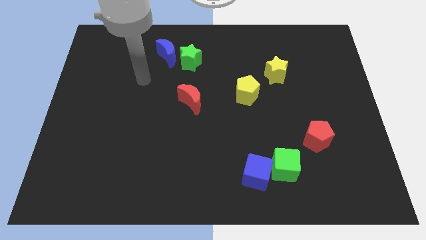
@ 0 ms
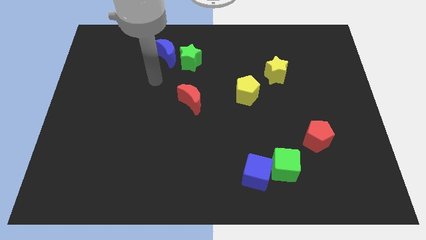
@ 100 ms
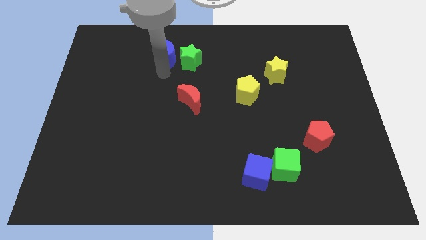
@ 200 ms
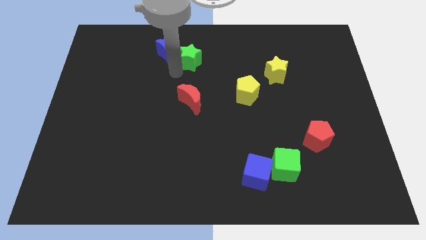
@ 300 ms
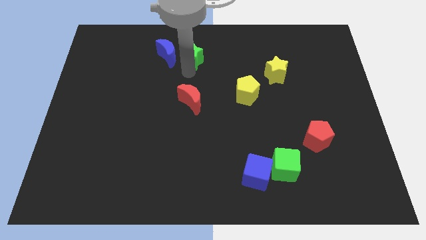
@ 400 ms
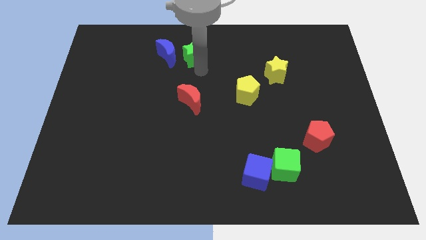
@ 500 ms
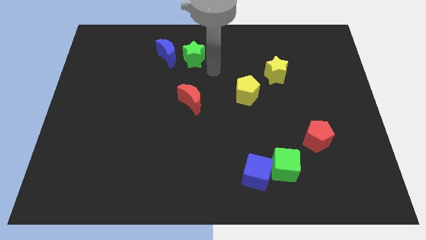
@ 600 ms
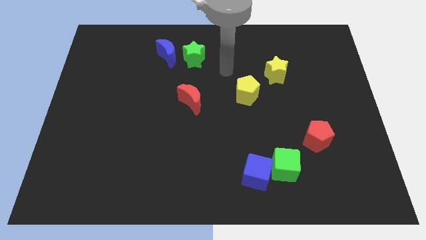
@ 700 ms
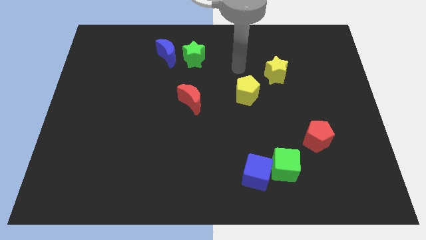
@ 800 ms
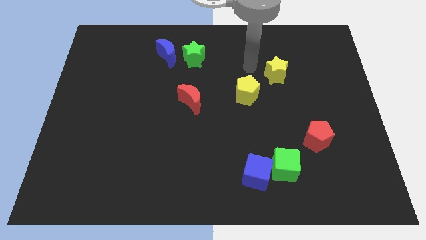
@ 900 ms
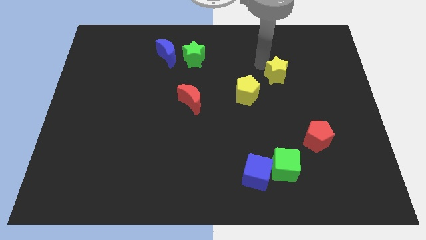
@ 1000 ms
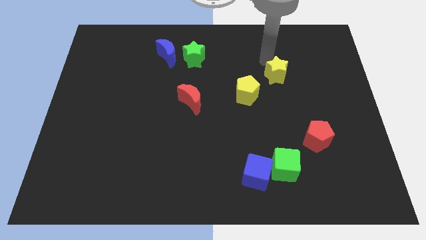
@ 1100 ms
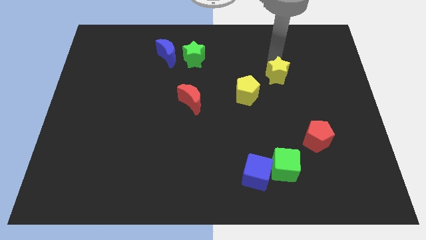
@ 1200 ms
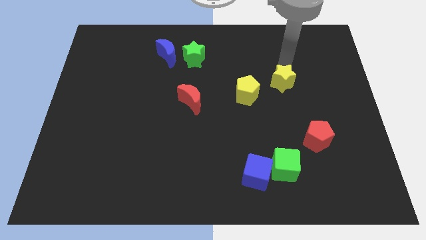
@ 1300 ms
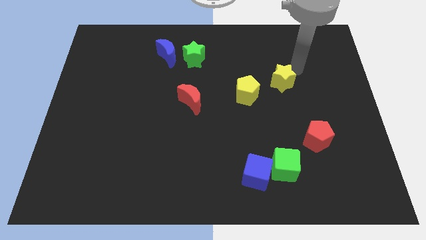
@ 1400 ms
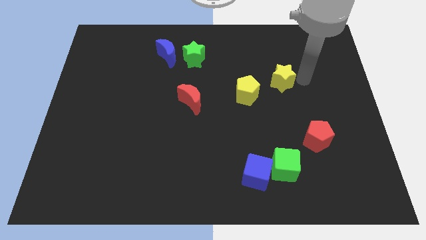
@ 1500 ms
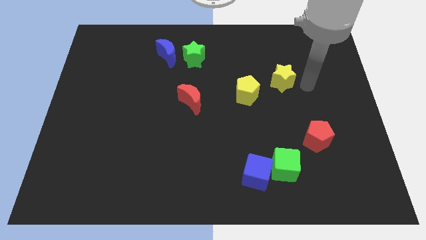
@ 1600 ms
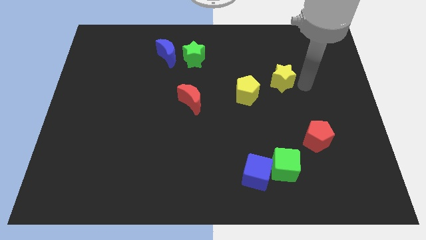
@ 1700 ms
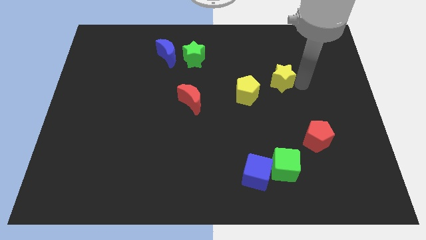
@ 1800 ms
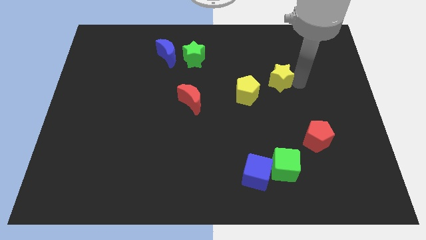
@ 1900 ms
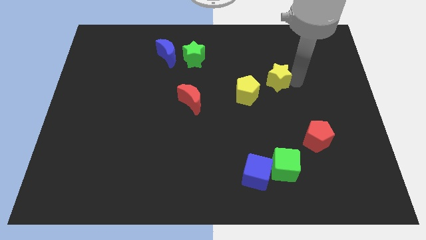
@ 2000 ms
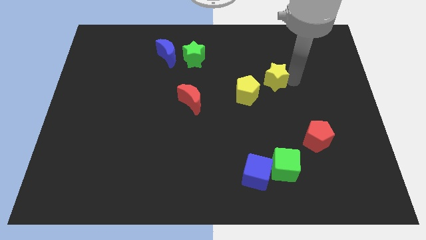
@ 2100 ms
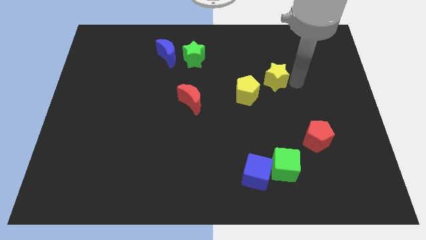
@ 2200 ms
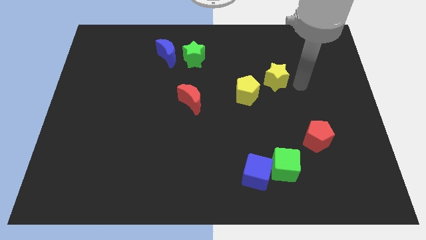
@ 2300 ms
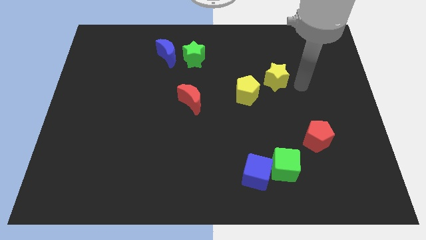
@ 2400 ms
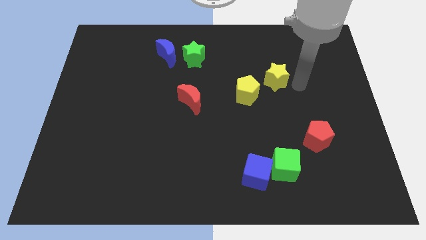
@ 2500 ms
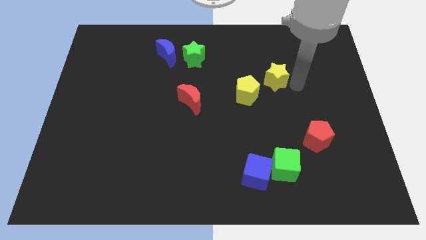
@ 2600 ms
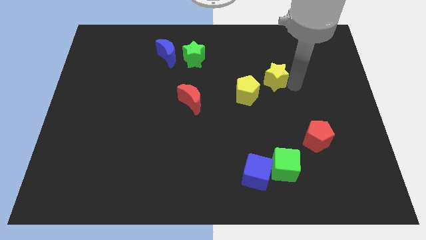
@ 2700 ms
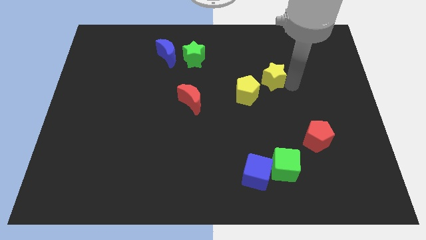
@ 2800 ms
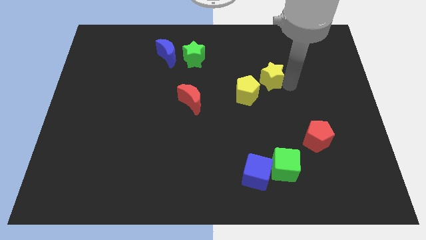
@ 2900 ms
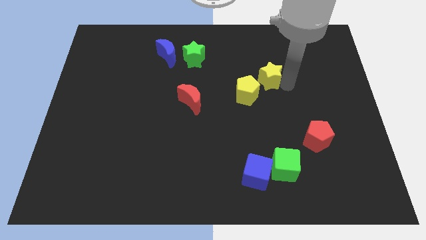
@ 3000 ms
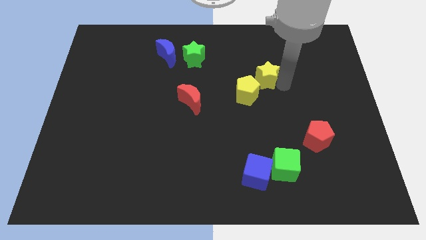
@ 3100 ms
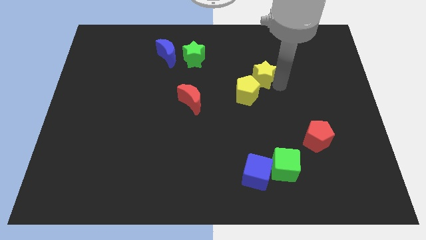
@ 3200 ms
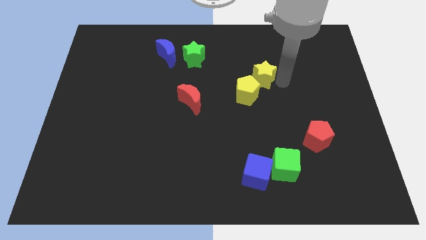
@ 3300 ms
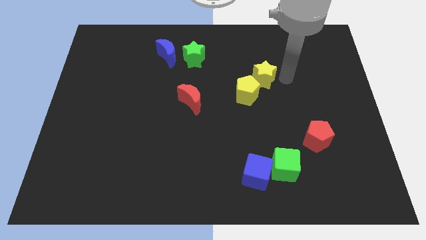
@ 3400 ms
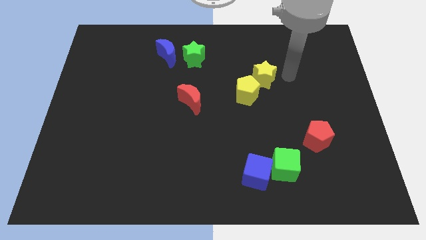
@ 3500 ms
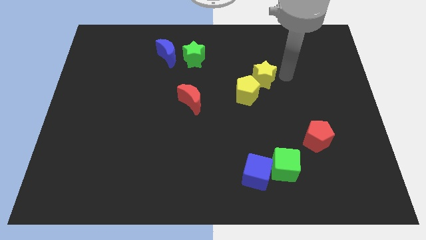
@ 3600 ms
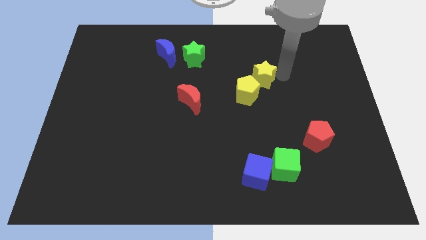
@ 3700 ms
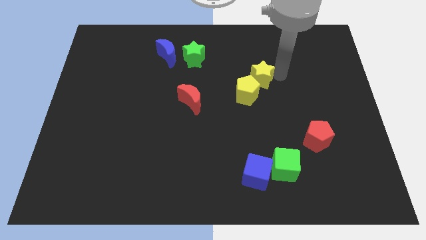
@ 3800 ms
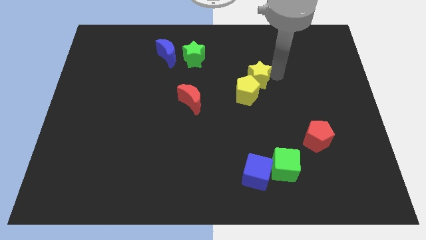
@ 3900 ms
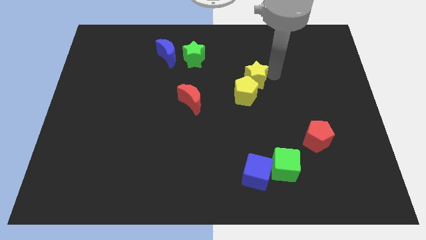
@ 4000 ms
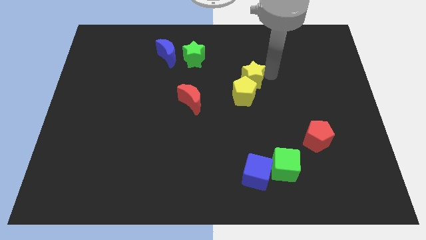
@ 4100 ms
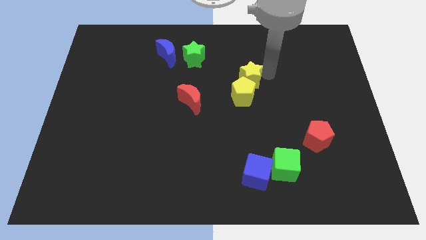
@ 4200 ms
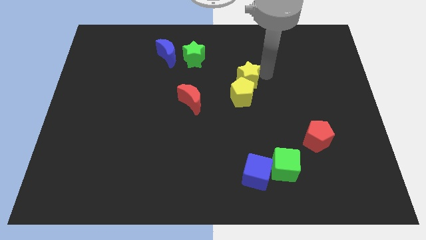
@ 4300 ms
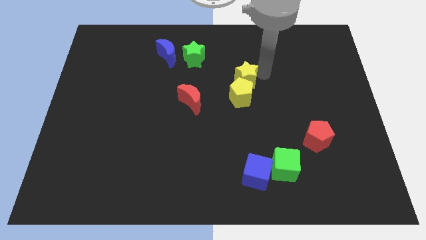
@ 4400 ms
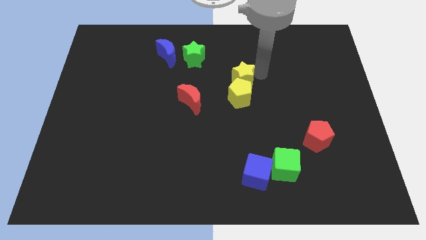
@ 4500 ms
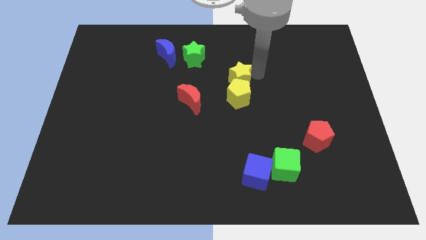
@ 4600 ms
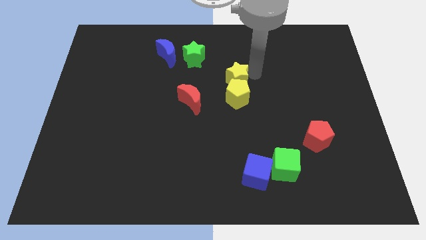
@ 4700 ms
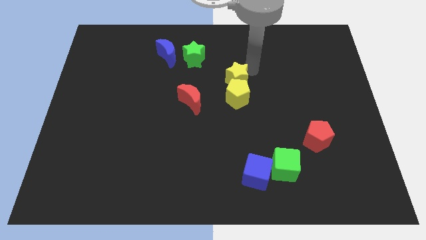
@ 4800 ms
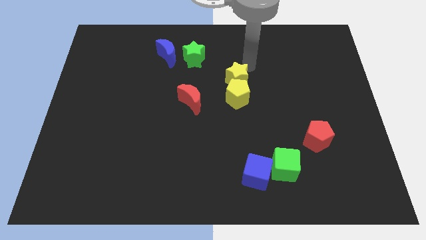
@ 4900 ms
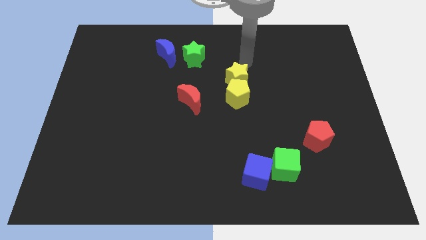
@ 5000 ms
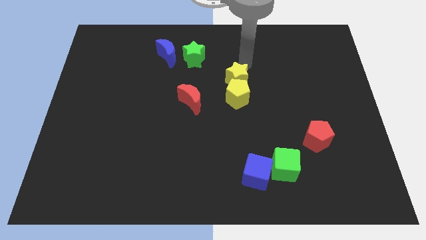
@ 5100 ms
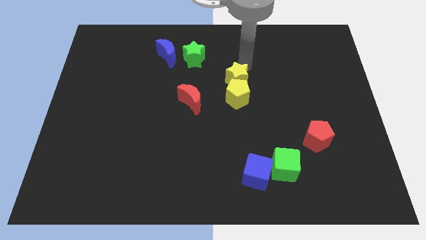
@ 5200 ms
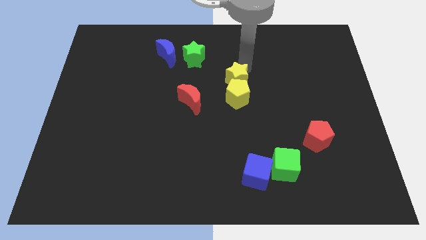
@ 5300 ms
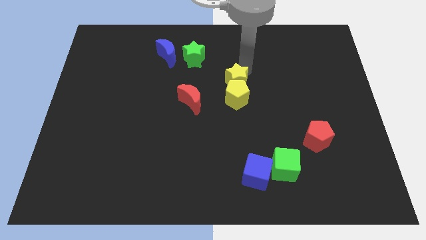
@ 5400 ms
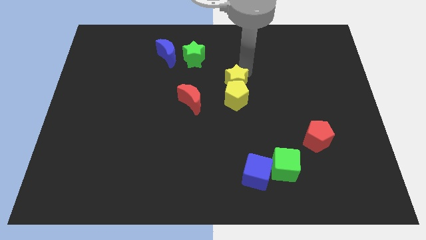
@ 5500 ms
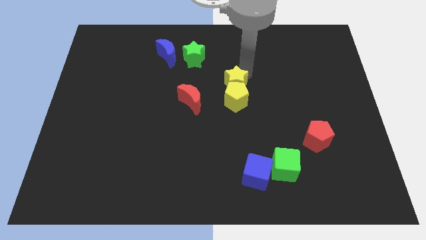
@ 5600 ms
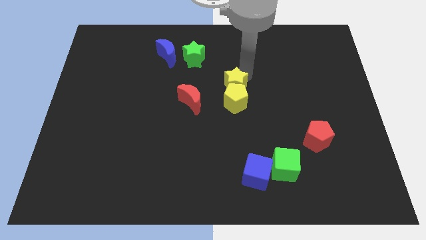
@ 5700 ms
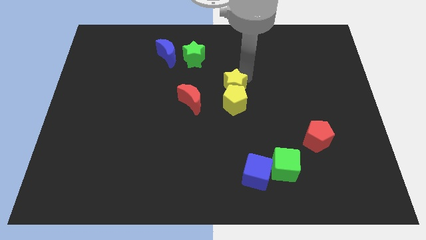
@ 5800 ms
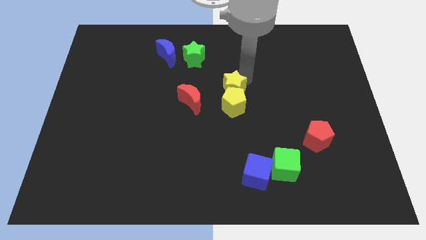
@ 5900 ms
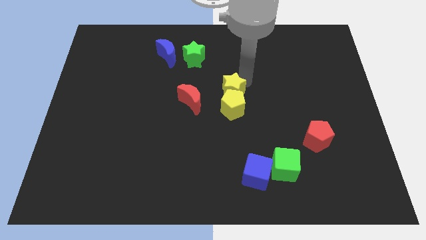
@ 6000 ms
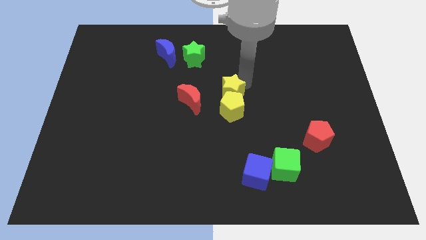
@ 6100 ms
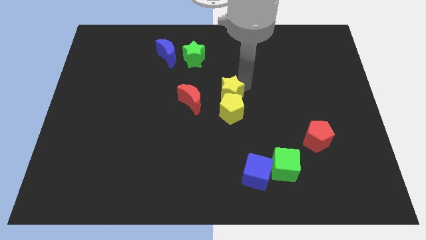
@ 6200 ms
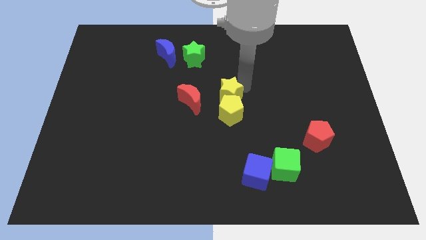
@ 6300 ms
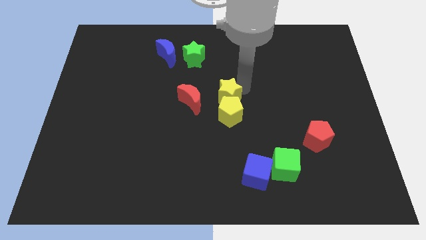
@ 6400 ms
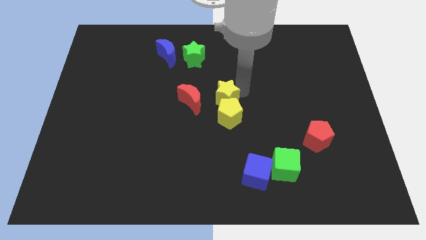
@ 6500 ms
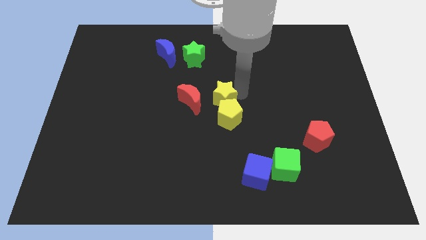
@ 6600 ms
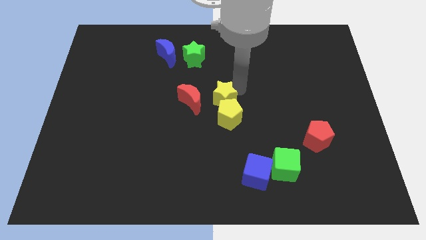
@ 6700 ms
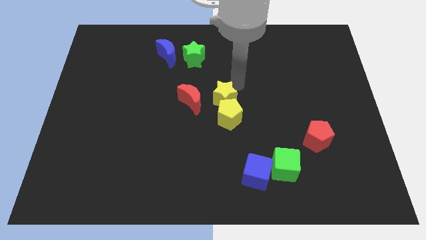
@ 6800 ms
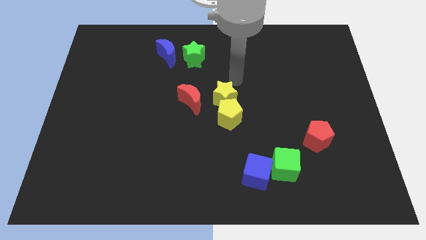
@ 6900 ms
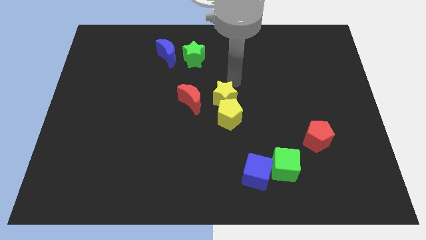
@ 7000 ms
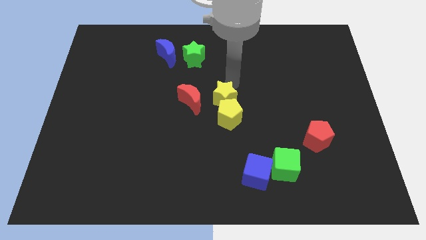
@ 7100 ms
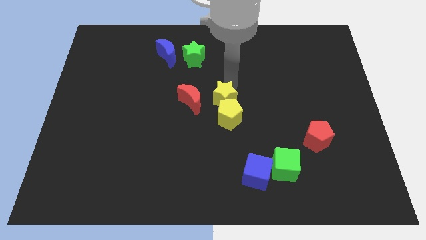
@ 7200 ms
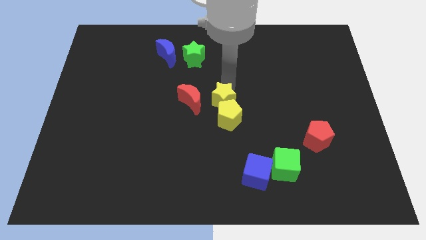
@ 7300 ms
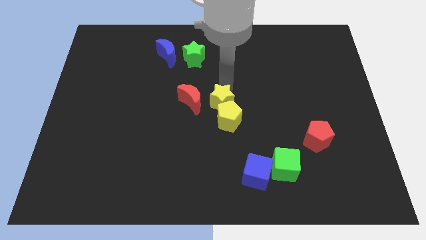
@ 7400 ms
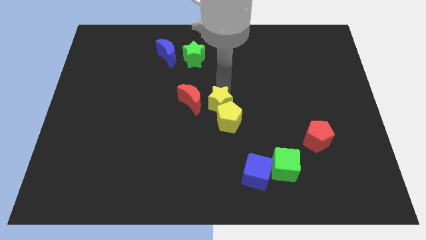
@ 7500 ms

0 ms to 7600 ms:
put the yellow star to the bottom right of the red moon
